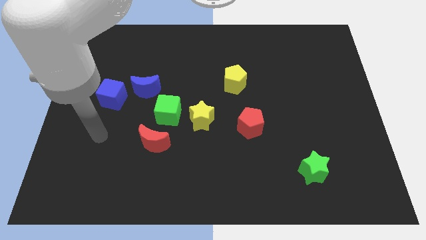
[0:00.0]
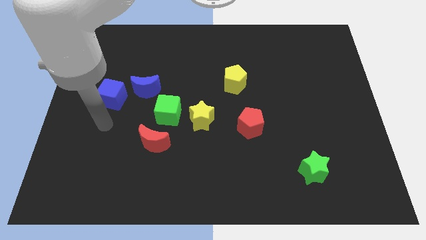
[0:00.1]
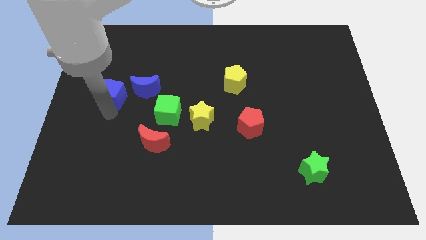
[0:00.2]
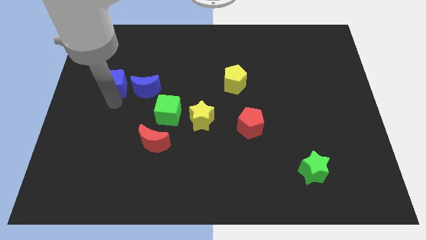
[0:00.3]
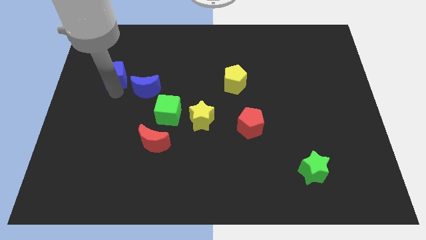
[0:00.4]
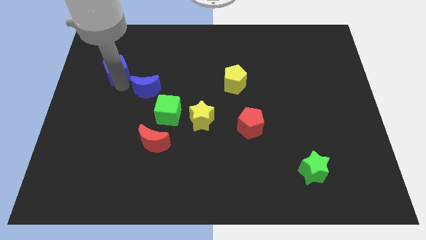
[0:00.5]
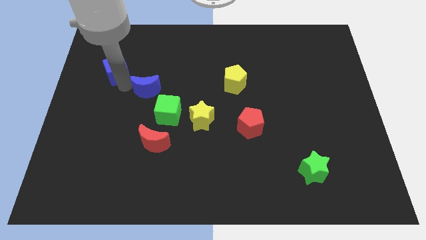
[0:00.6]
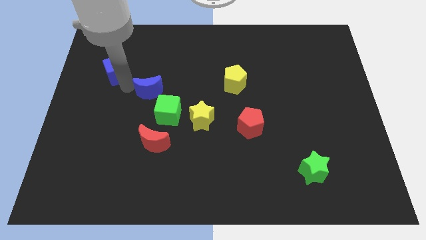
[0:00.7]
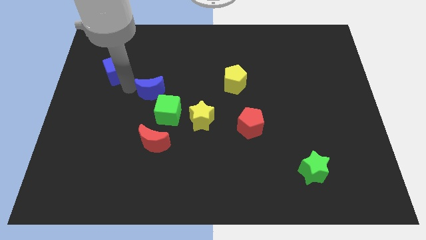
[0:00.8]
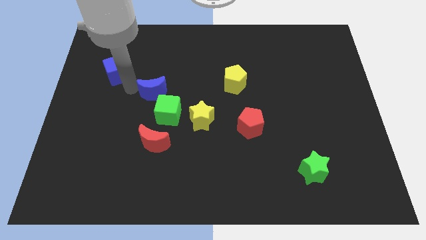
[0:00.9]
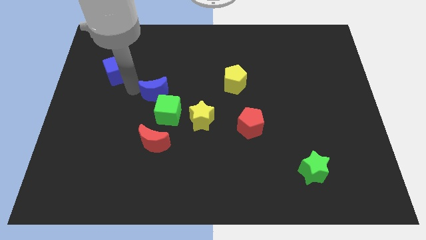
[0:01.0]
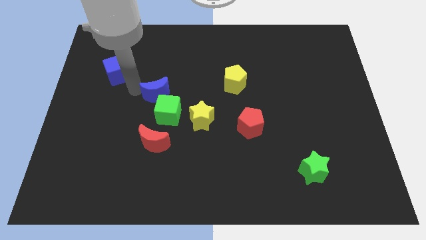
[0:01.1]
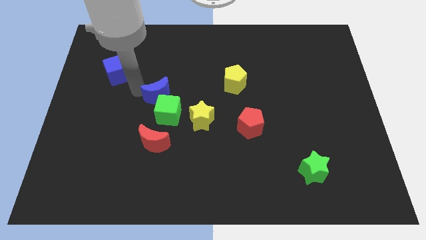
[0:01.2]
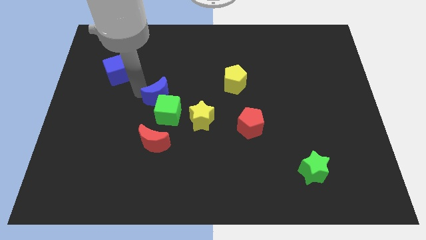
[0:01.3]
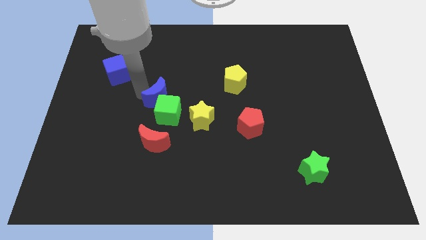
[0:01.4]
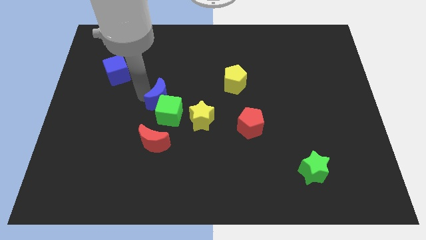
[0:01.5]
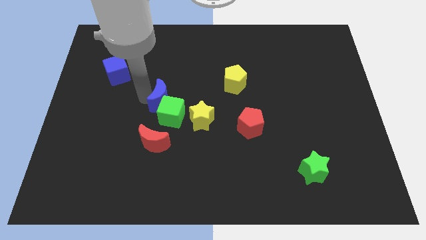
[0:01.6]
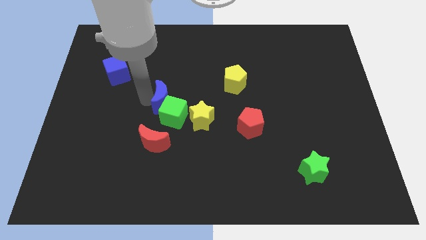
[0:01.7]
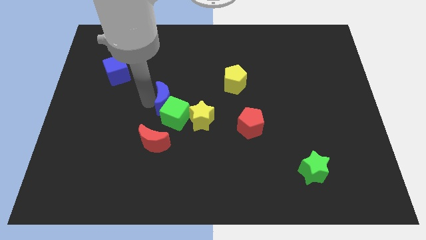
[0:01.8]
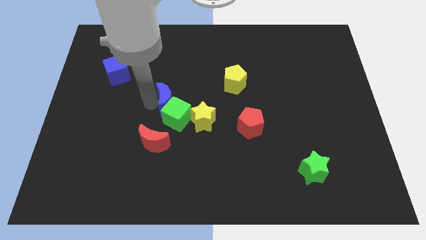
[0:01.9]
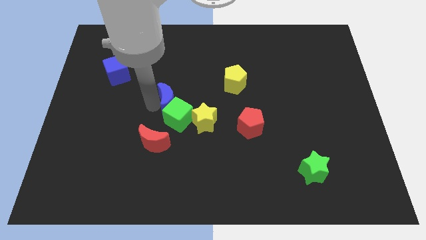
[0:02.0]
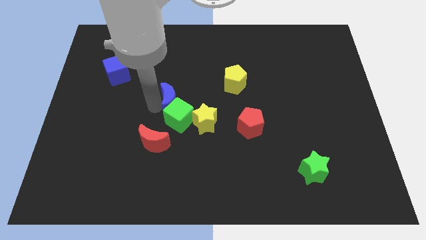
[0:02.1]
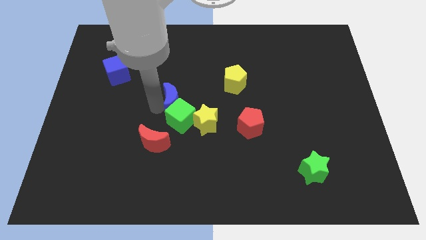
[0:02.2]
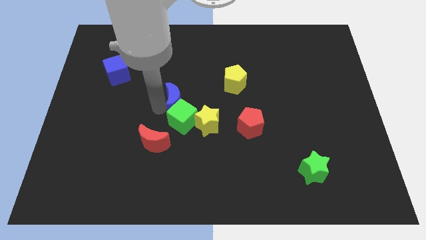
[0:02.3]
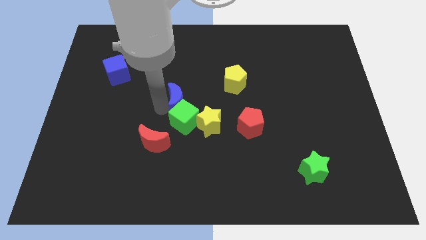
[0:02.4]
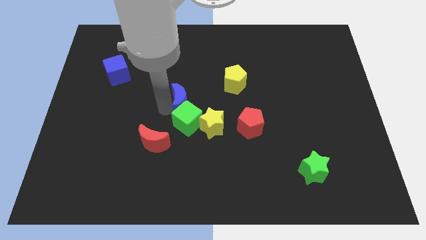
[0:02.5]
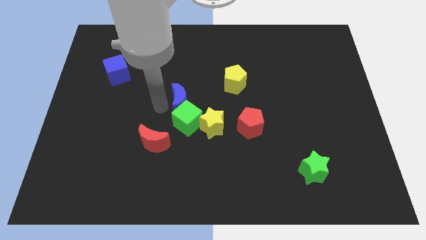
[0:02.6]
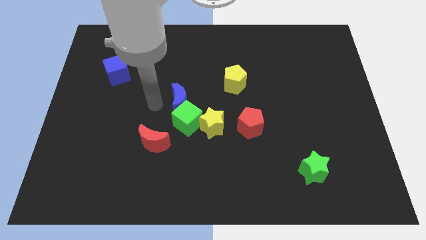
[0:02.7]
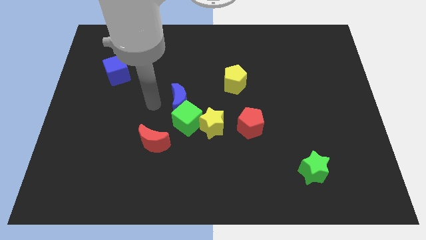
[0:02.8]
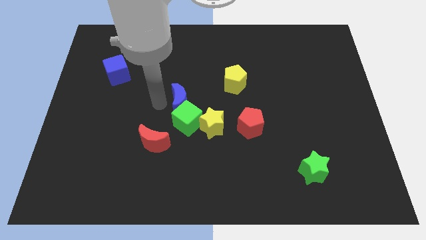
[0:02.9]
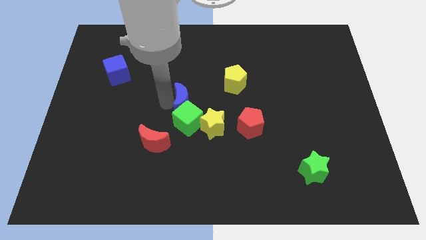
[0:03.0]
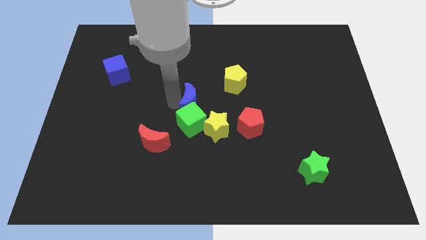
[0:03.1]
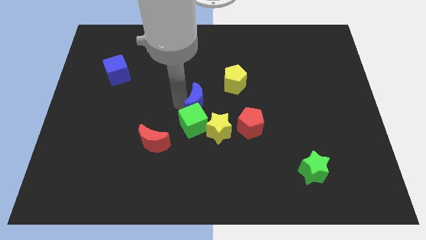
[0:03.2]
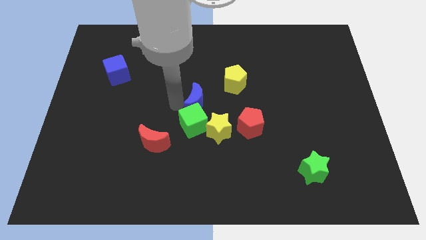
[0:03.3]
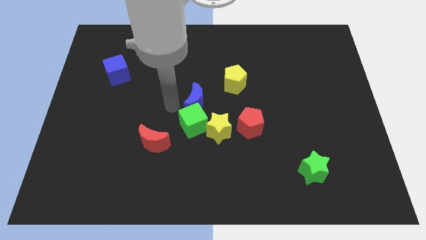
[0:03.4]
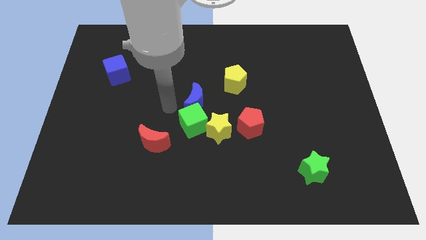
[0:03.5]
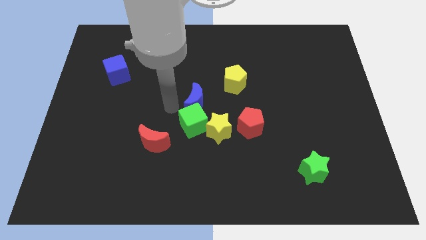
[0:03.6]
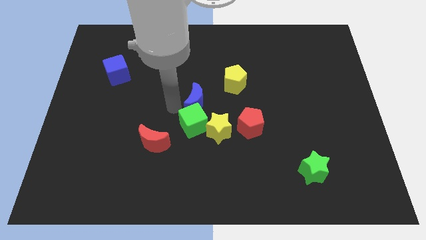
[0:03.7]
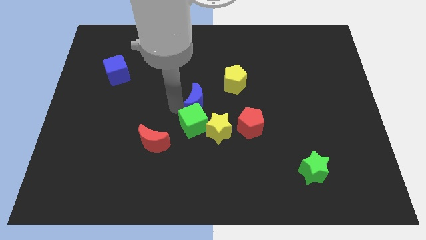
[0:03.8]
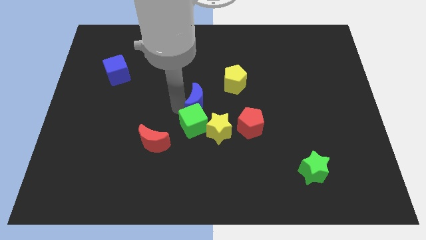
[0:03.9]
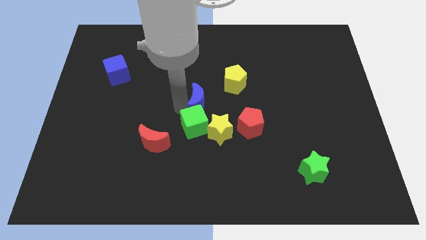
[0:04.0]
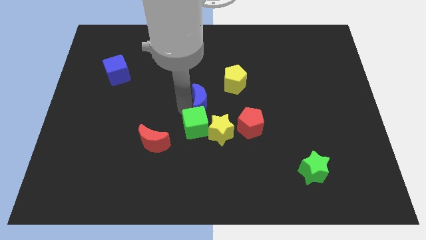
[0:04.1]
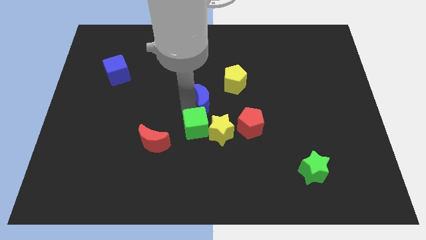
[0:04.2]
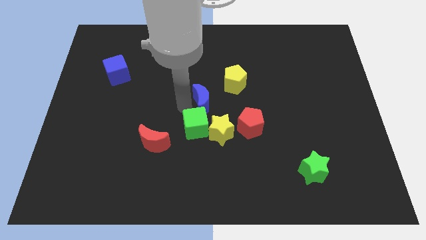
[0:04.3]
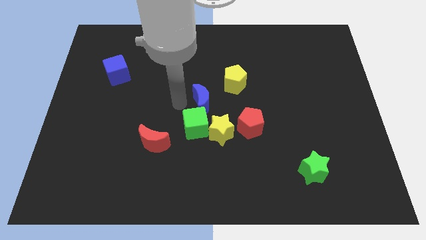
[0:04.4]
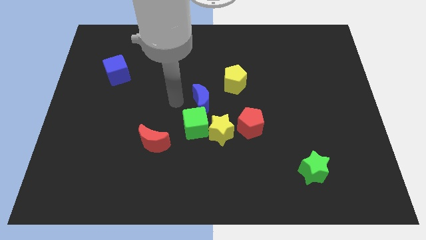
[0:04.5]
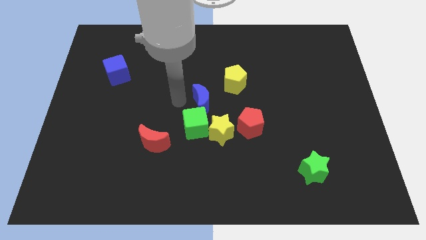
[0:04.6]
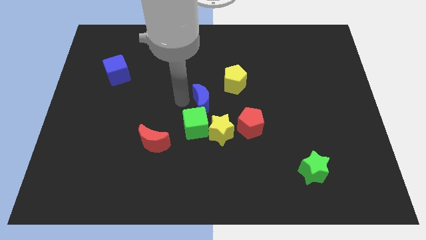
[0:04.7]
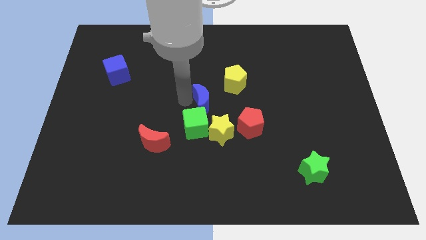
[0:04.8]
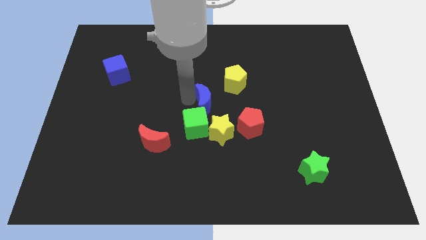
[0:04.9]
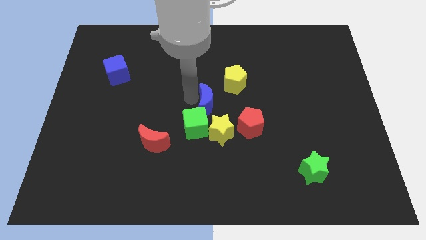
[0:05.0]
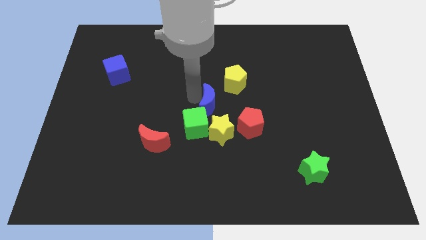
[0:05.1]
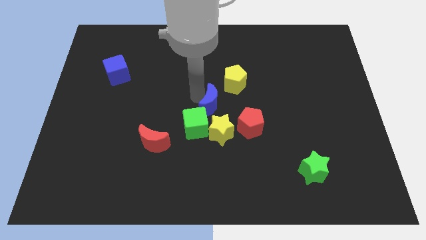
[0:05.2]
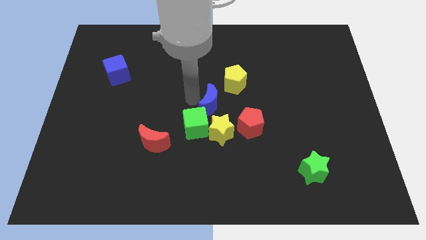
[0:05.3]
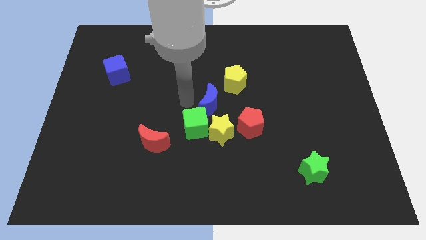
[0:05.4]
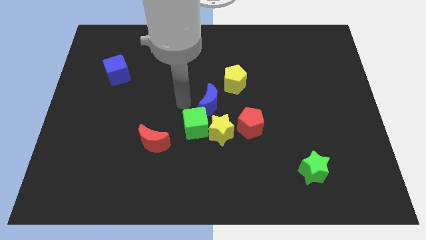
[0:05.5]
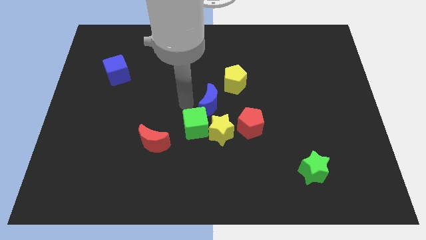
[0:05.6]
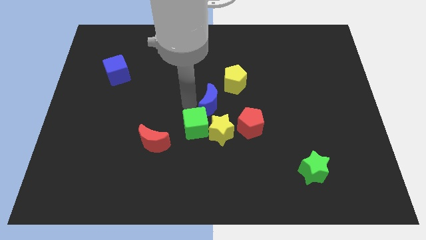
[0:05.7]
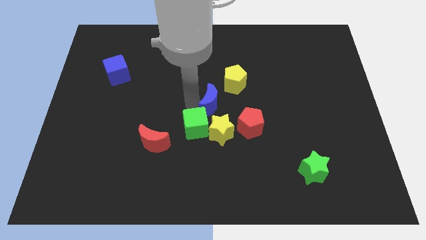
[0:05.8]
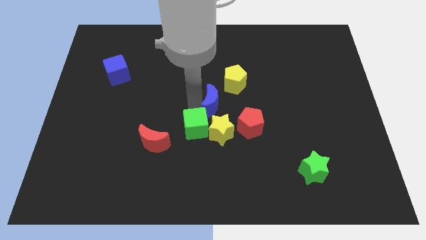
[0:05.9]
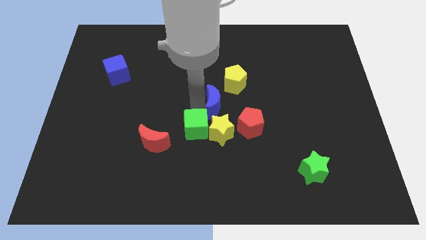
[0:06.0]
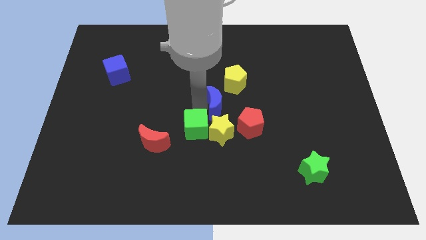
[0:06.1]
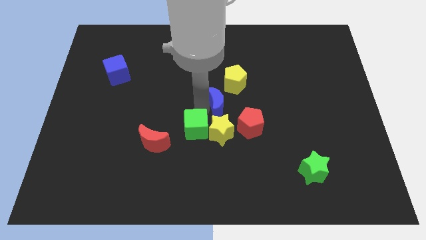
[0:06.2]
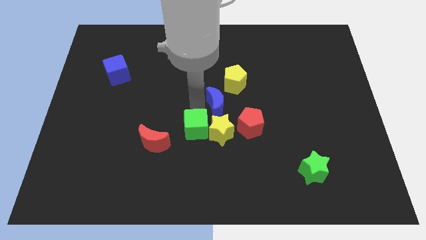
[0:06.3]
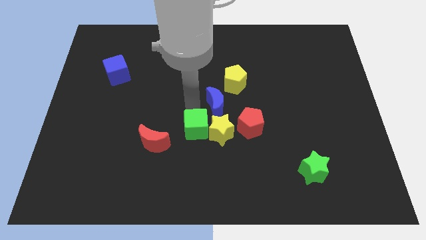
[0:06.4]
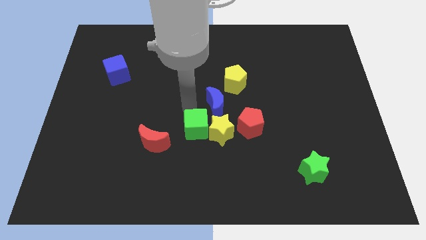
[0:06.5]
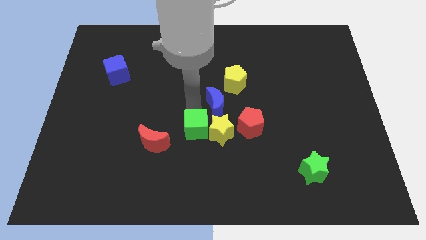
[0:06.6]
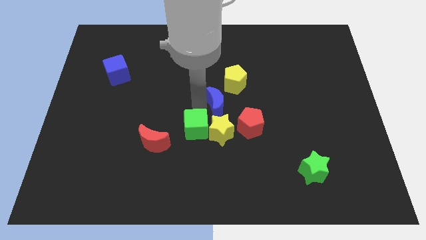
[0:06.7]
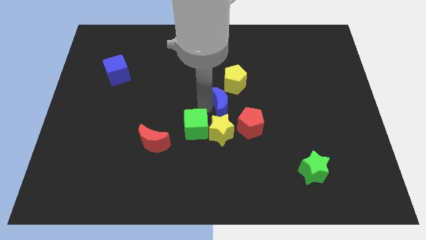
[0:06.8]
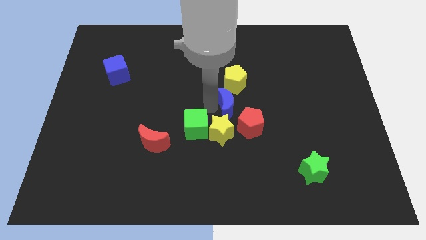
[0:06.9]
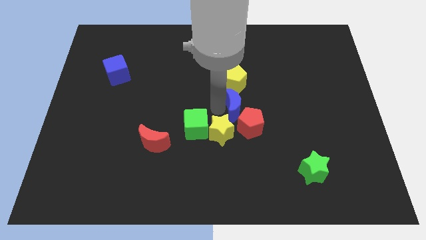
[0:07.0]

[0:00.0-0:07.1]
move the blue moon to the top side of the red pentagon
